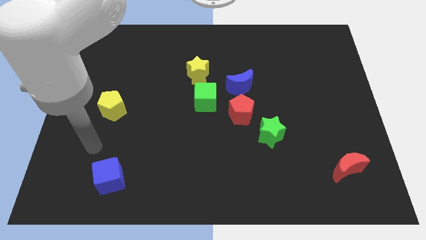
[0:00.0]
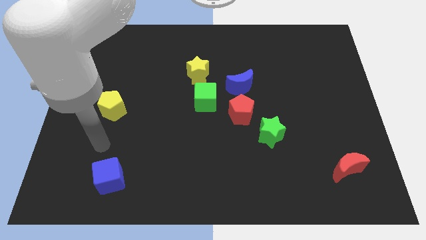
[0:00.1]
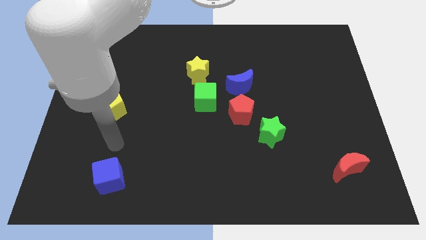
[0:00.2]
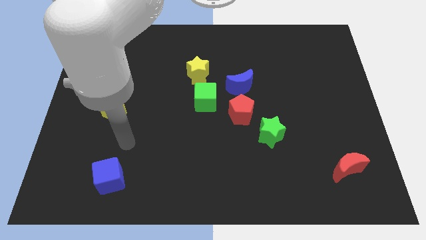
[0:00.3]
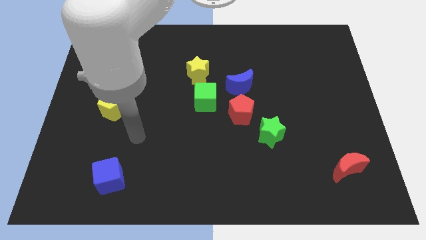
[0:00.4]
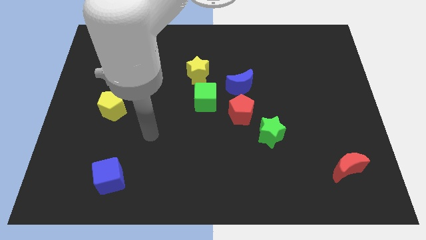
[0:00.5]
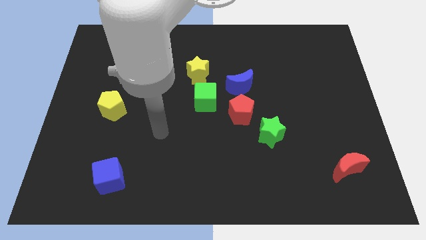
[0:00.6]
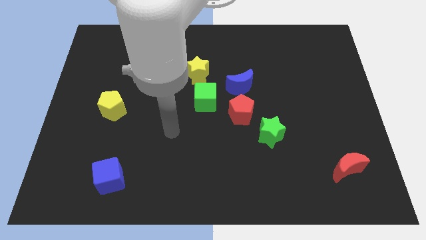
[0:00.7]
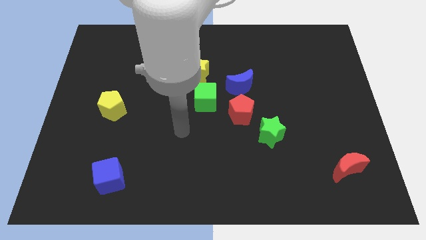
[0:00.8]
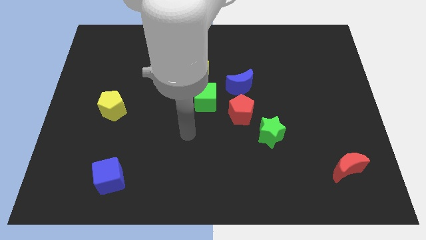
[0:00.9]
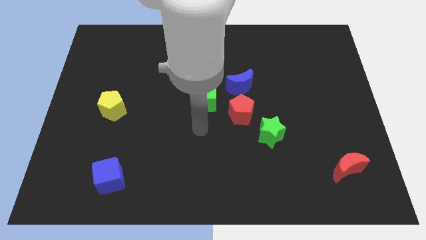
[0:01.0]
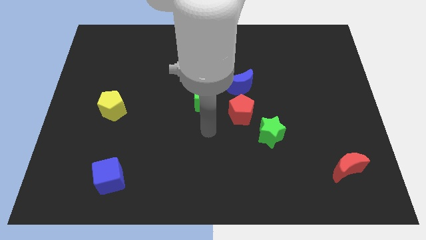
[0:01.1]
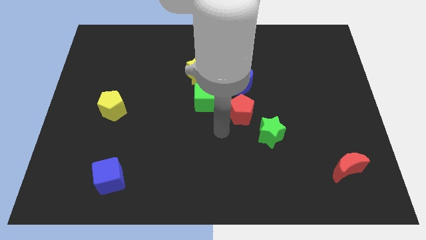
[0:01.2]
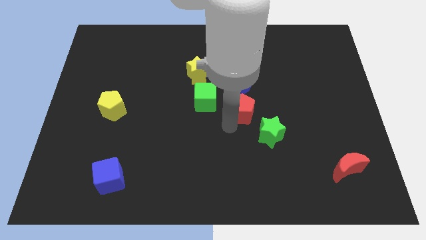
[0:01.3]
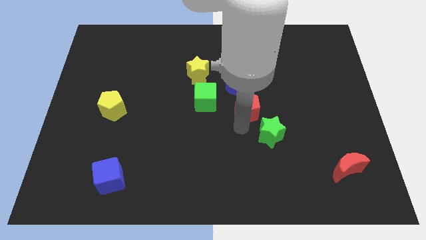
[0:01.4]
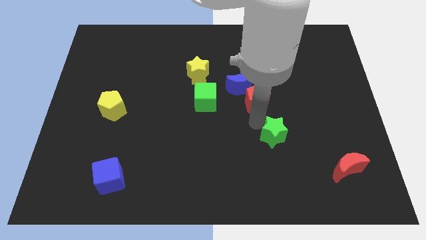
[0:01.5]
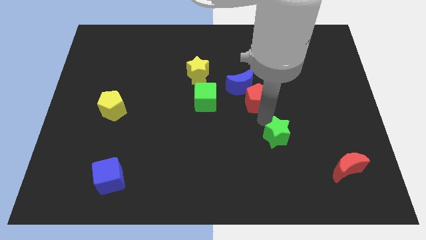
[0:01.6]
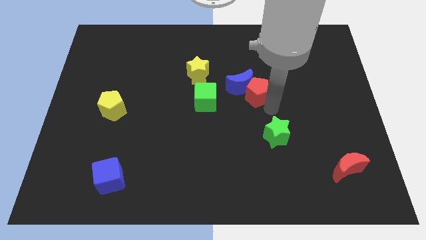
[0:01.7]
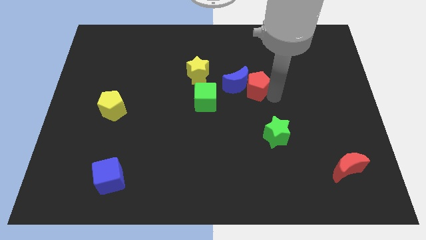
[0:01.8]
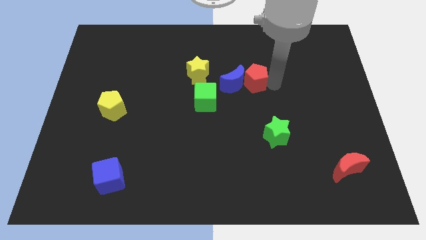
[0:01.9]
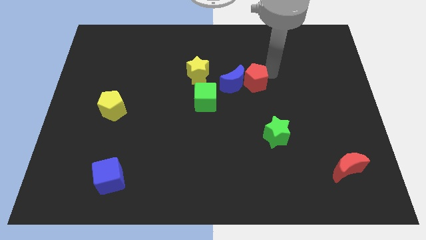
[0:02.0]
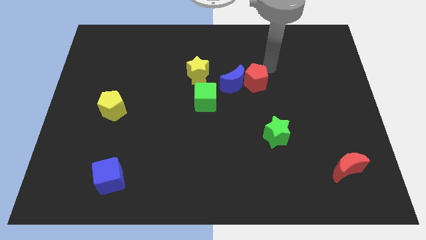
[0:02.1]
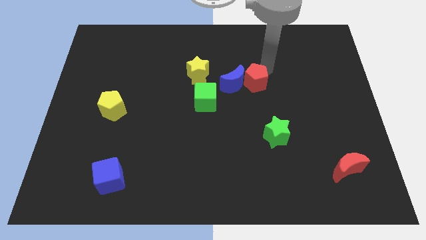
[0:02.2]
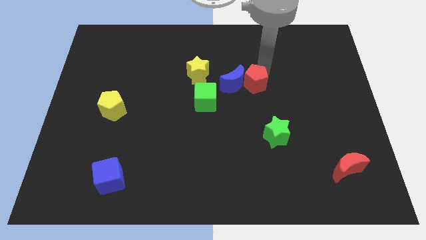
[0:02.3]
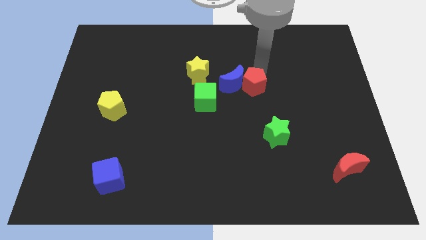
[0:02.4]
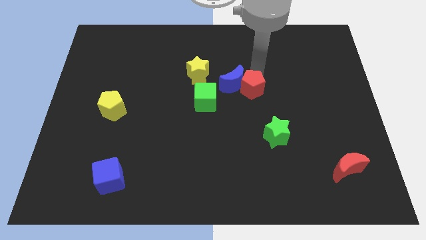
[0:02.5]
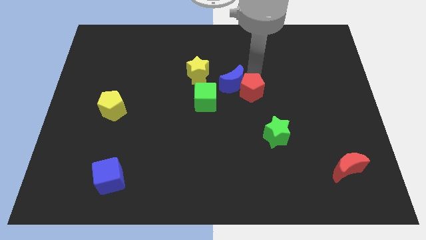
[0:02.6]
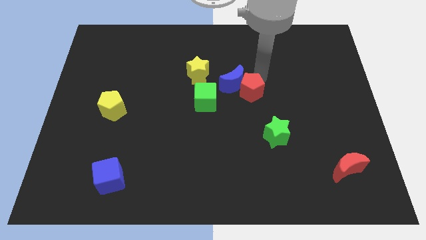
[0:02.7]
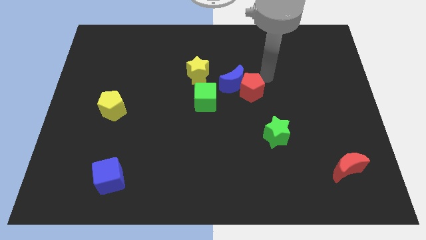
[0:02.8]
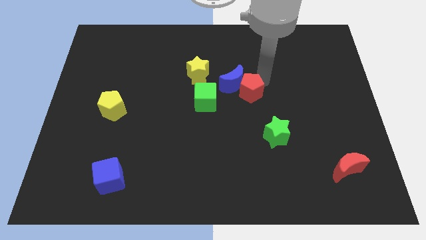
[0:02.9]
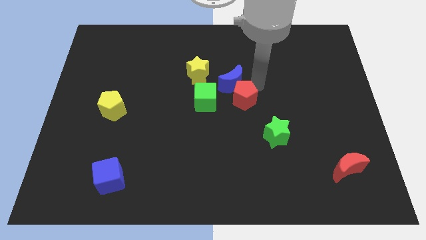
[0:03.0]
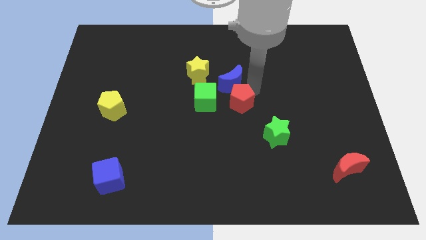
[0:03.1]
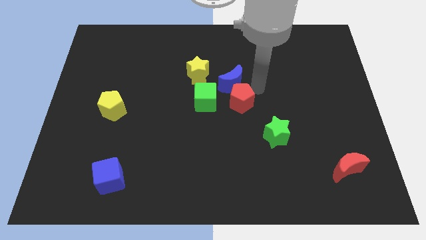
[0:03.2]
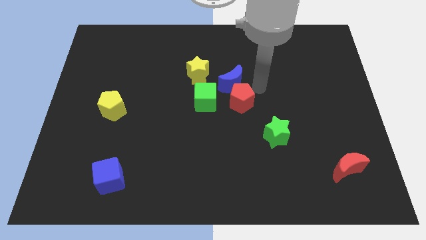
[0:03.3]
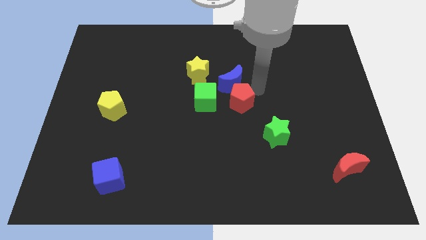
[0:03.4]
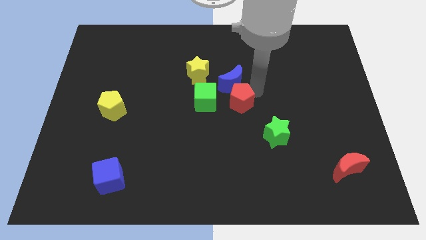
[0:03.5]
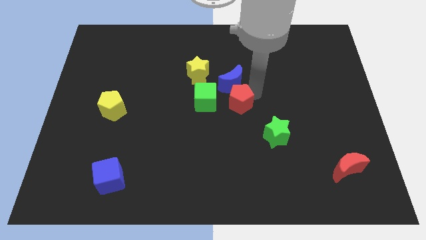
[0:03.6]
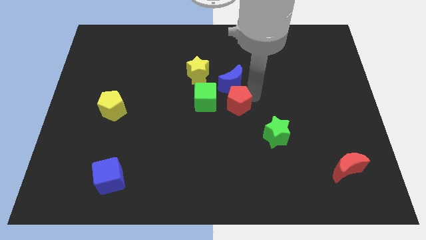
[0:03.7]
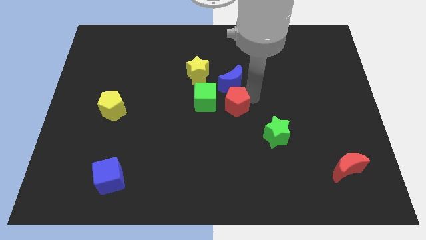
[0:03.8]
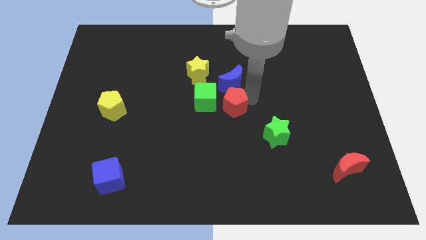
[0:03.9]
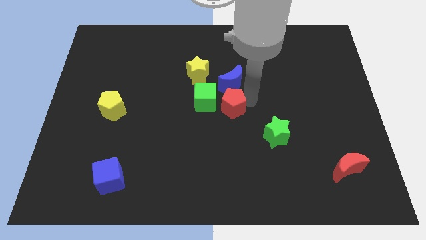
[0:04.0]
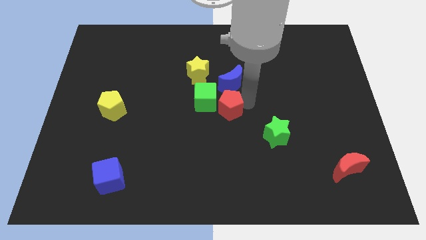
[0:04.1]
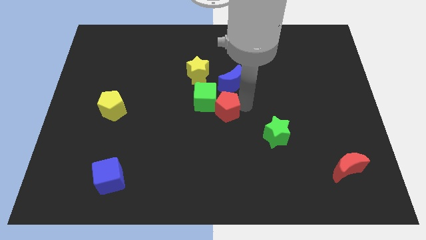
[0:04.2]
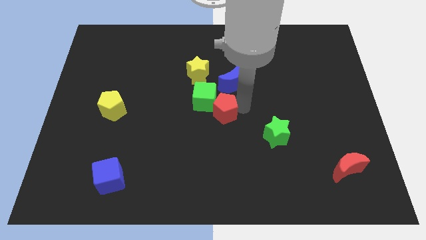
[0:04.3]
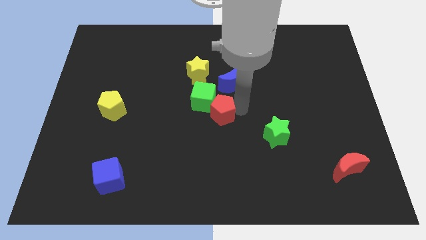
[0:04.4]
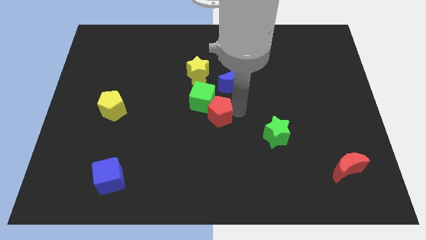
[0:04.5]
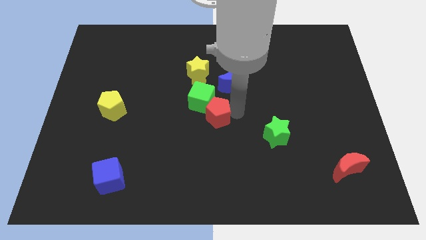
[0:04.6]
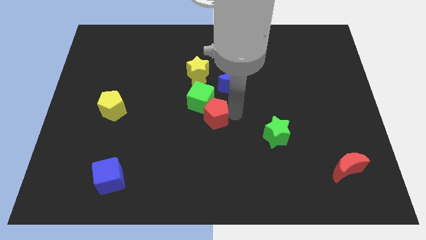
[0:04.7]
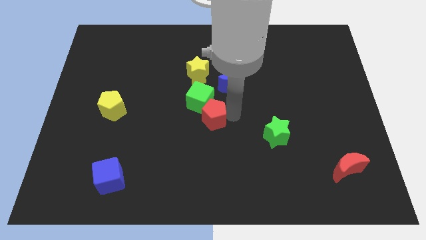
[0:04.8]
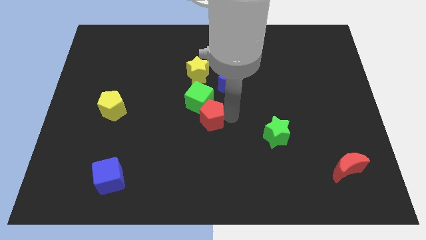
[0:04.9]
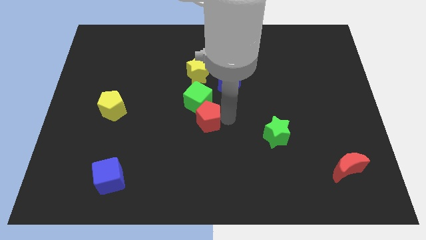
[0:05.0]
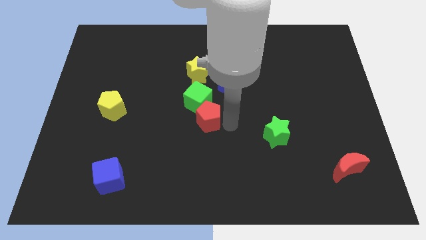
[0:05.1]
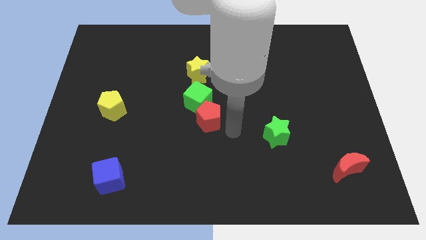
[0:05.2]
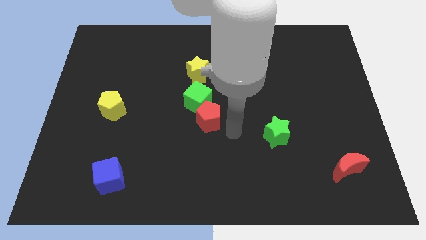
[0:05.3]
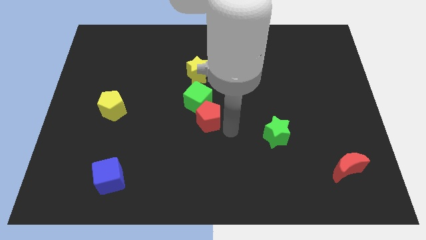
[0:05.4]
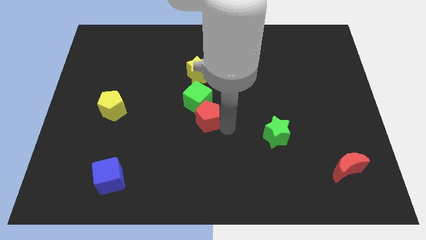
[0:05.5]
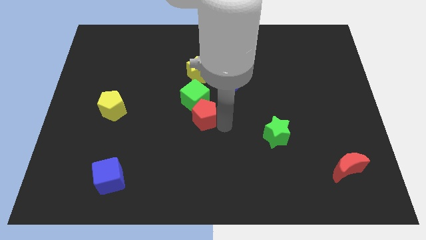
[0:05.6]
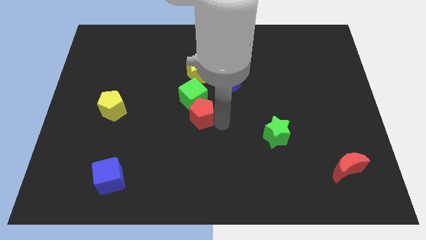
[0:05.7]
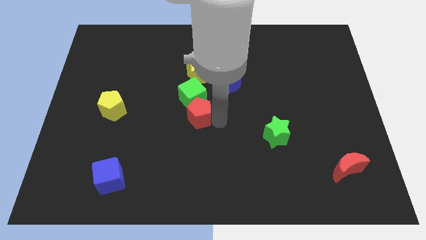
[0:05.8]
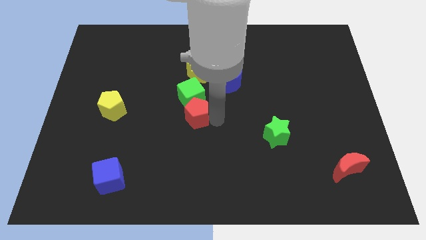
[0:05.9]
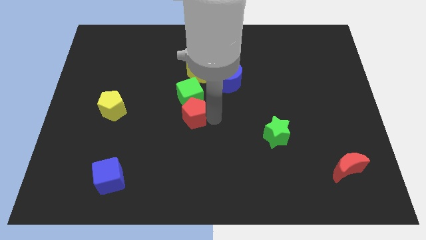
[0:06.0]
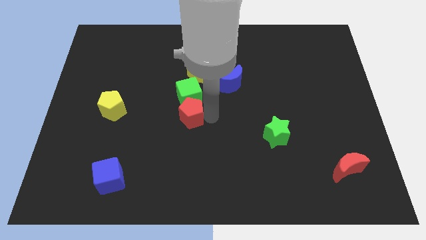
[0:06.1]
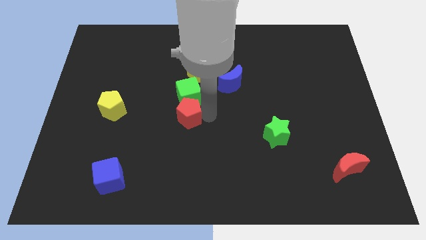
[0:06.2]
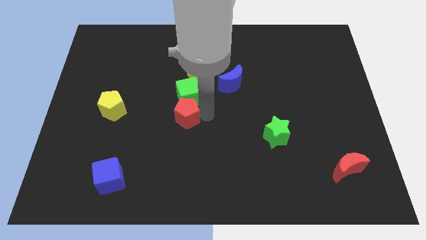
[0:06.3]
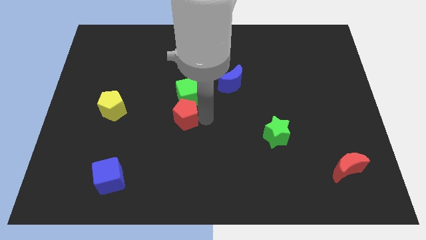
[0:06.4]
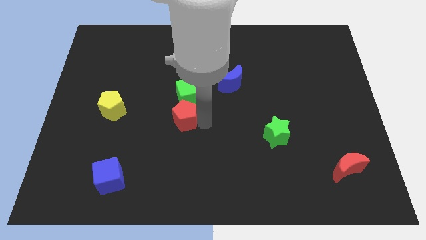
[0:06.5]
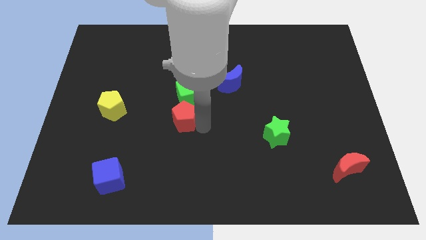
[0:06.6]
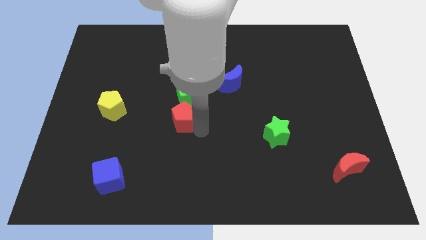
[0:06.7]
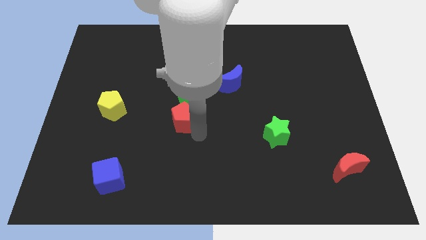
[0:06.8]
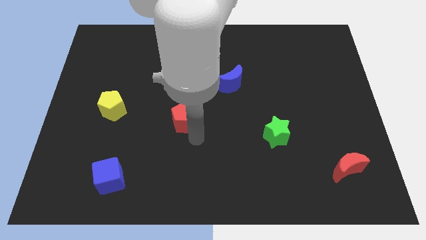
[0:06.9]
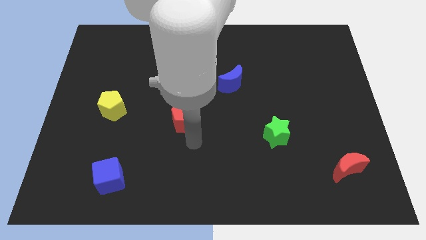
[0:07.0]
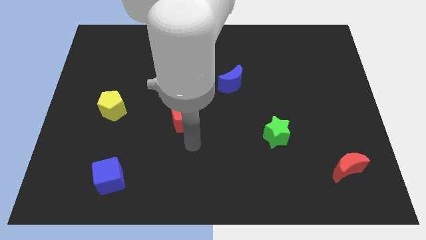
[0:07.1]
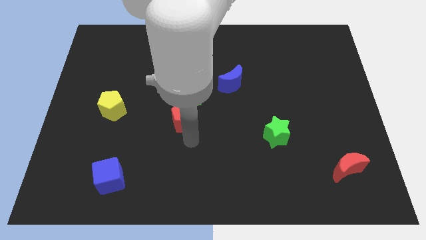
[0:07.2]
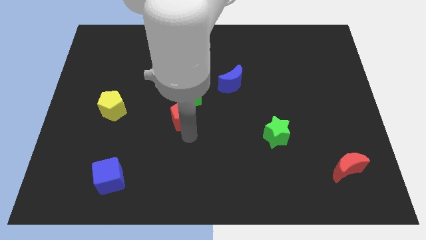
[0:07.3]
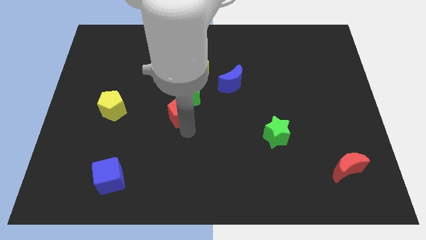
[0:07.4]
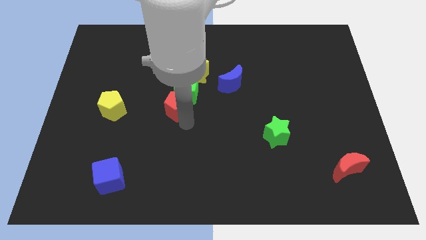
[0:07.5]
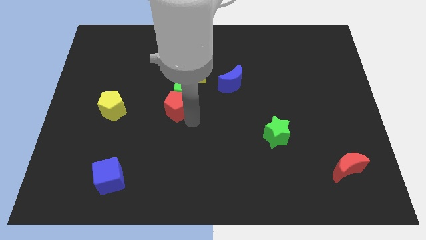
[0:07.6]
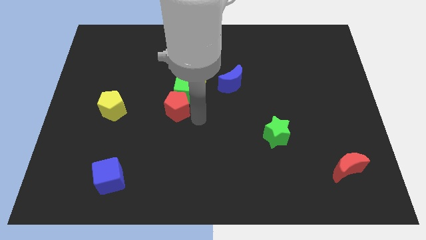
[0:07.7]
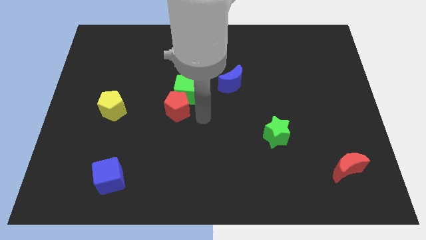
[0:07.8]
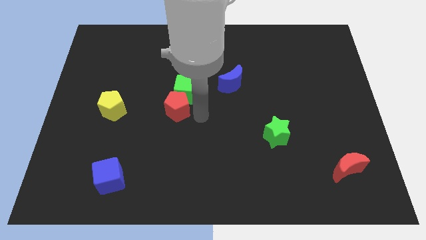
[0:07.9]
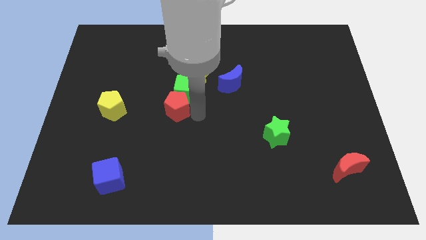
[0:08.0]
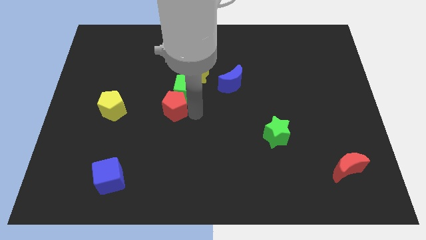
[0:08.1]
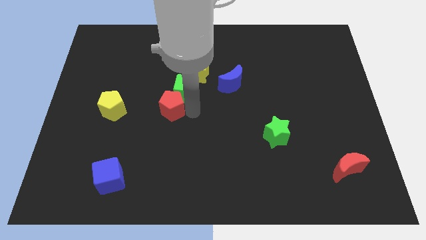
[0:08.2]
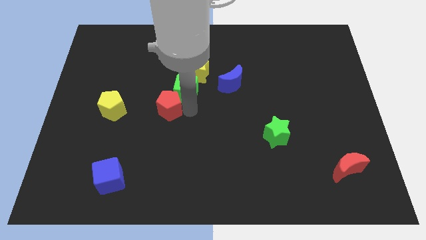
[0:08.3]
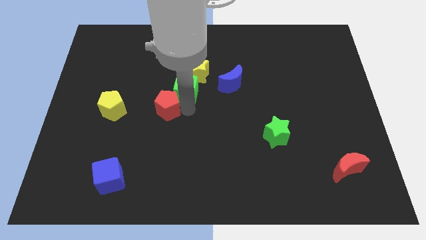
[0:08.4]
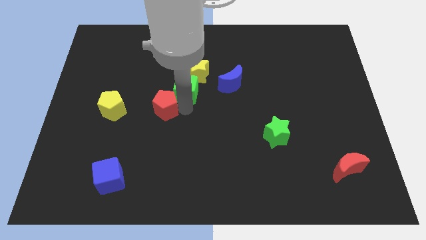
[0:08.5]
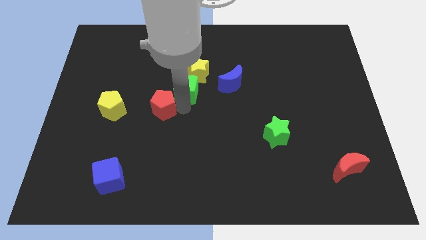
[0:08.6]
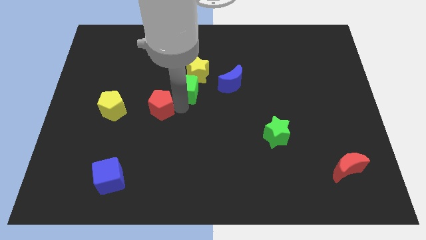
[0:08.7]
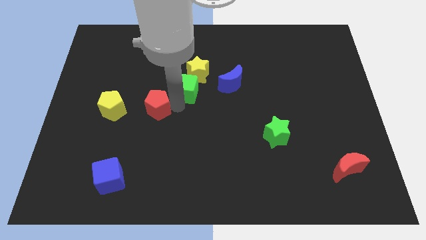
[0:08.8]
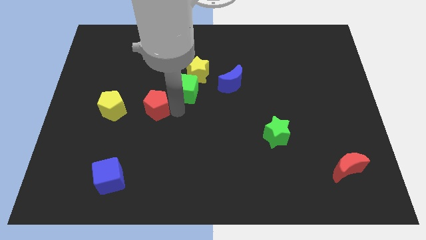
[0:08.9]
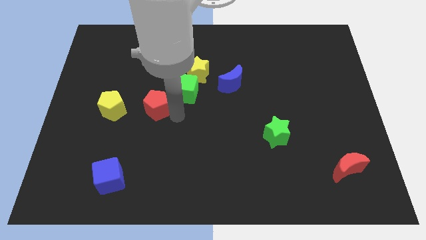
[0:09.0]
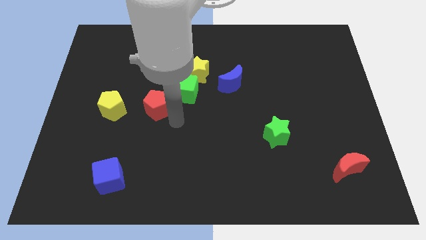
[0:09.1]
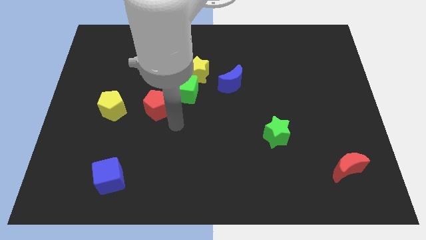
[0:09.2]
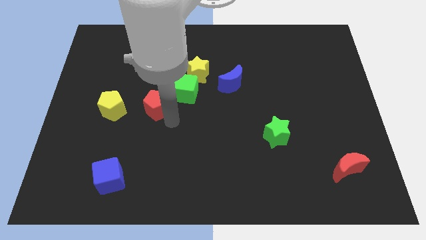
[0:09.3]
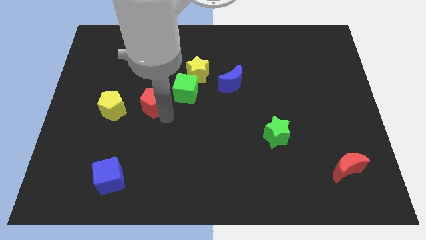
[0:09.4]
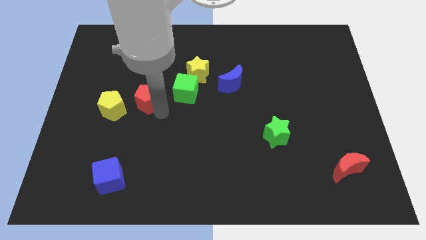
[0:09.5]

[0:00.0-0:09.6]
put the red pentagon to the top right of the yellow pentagon
